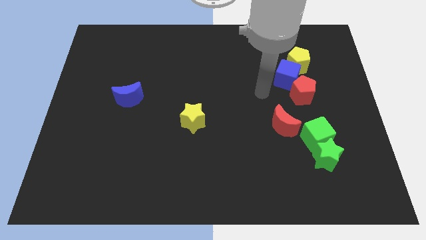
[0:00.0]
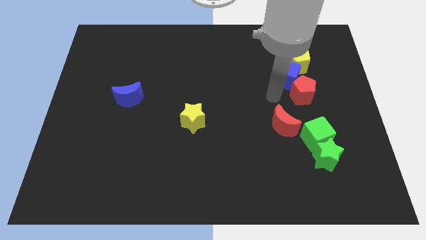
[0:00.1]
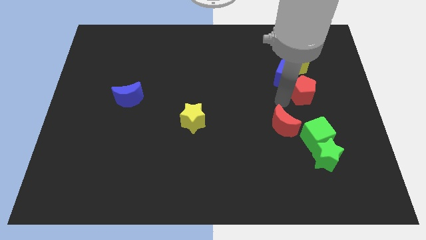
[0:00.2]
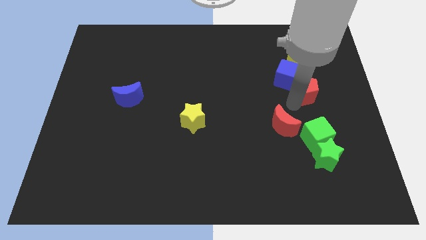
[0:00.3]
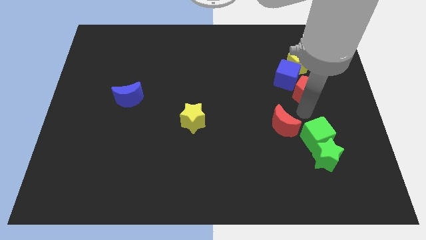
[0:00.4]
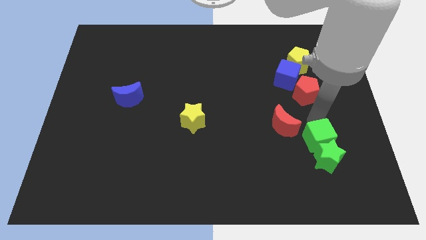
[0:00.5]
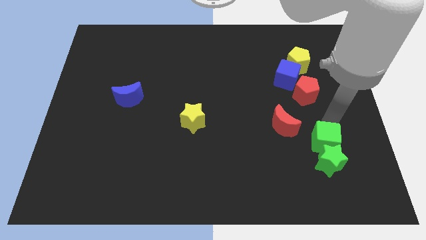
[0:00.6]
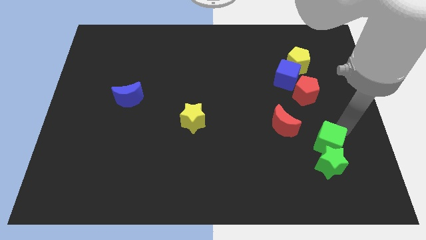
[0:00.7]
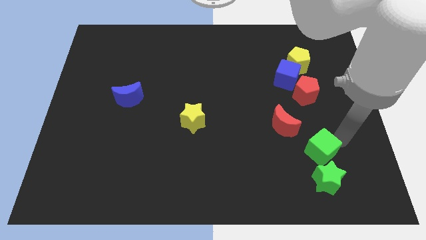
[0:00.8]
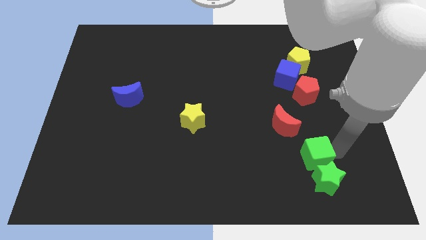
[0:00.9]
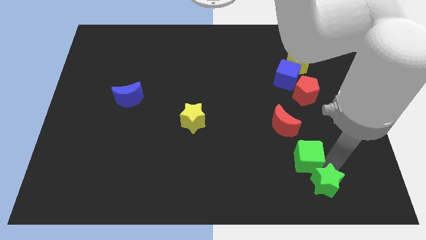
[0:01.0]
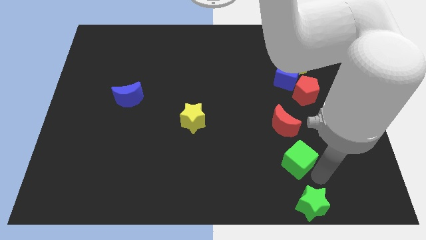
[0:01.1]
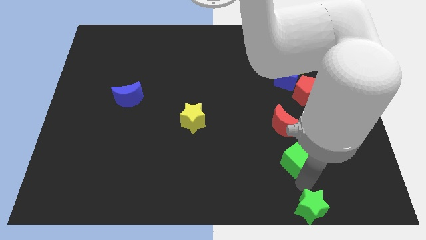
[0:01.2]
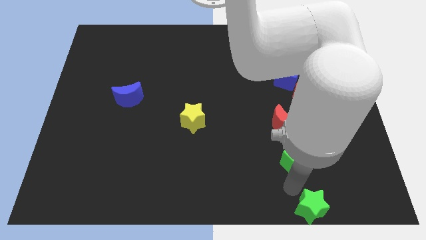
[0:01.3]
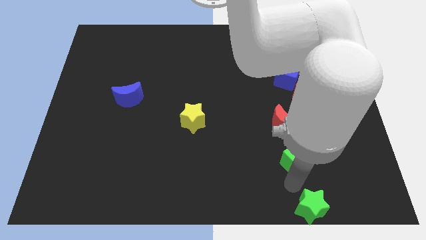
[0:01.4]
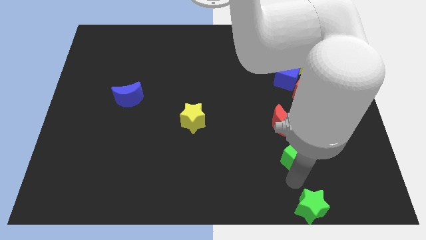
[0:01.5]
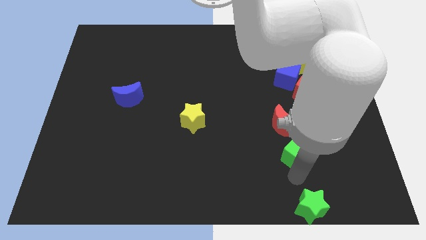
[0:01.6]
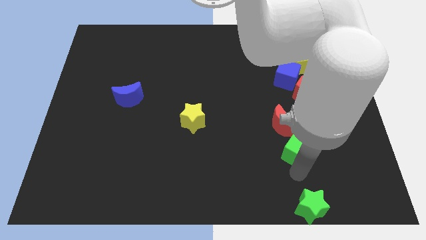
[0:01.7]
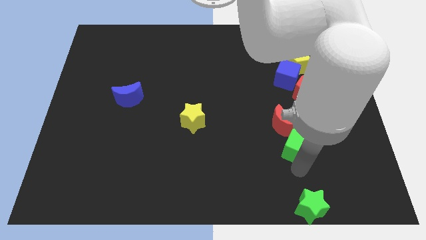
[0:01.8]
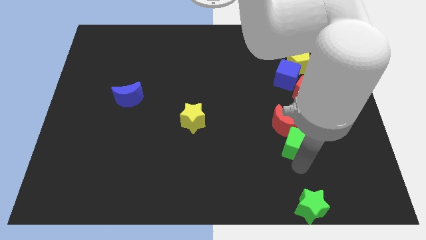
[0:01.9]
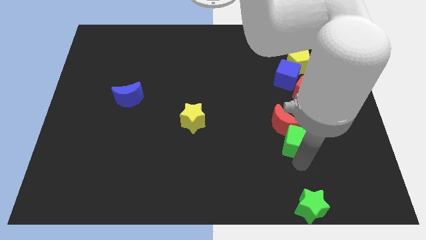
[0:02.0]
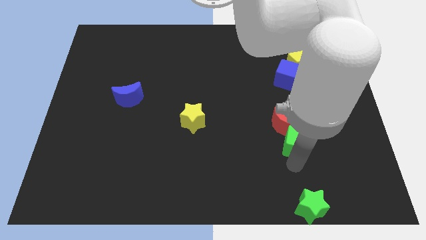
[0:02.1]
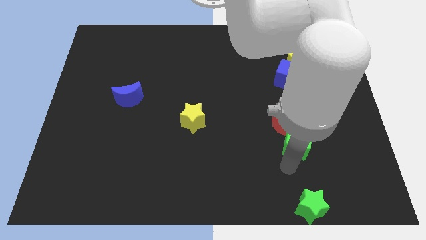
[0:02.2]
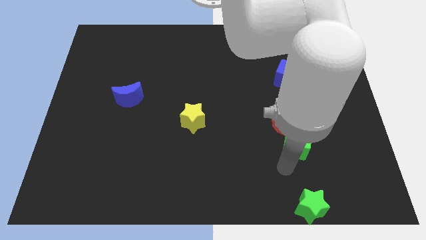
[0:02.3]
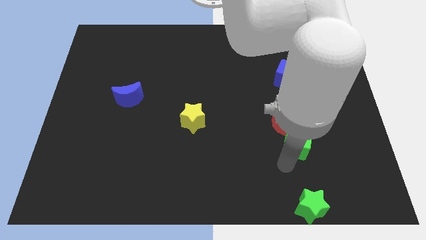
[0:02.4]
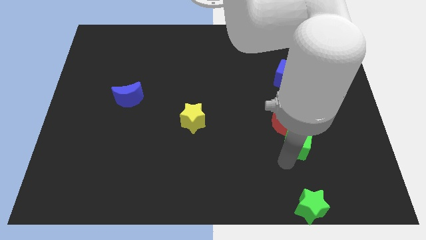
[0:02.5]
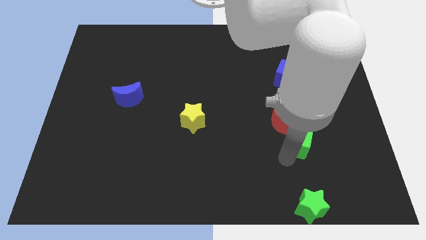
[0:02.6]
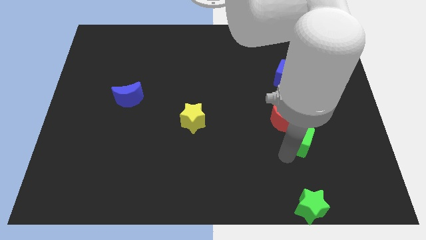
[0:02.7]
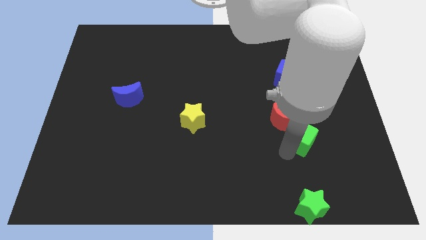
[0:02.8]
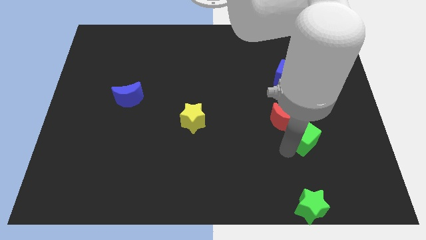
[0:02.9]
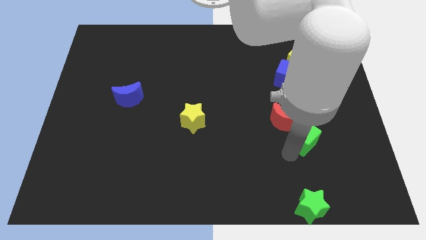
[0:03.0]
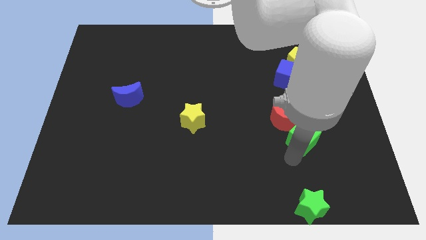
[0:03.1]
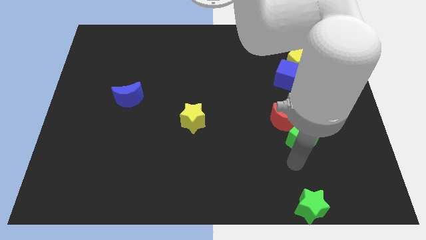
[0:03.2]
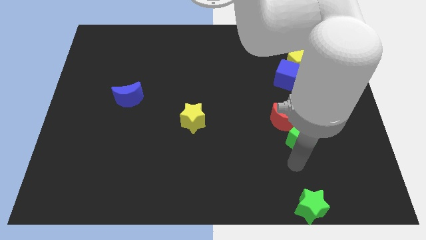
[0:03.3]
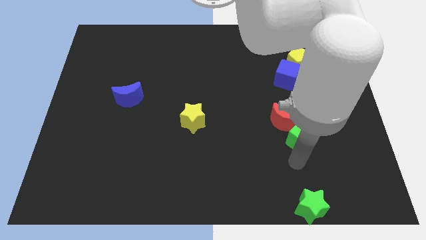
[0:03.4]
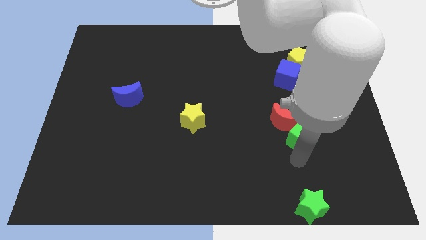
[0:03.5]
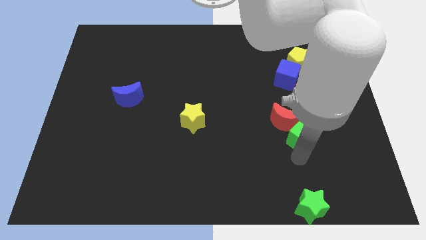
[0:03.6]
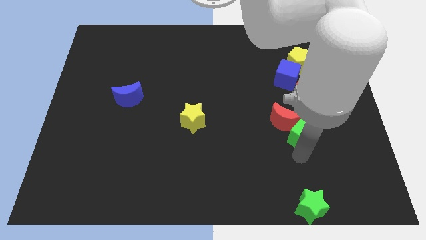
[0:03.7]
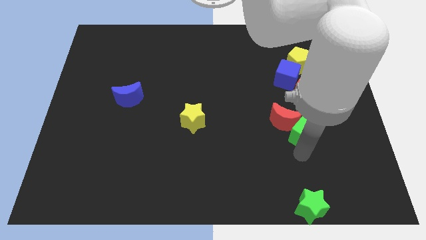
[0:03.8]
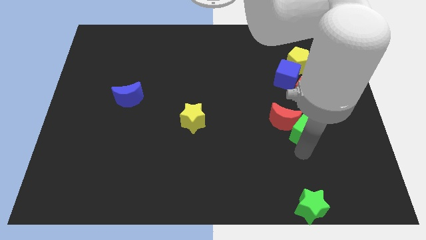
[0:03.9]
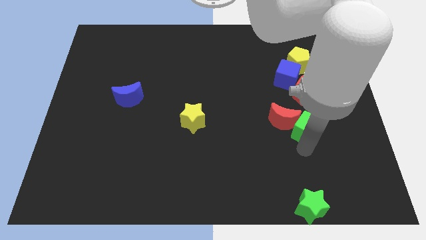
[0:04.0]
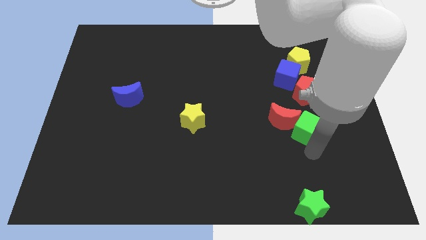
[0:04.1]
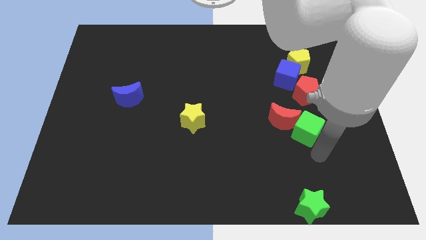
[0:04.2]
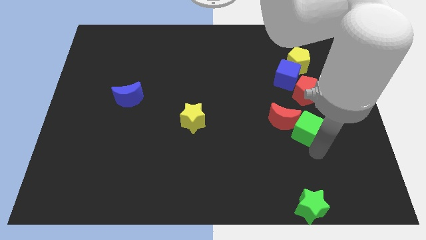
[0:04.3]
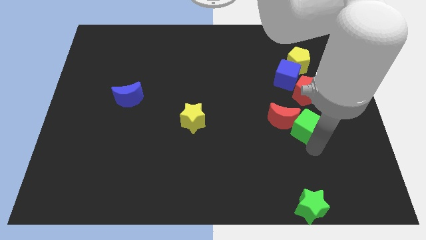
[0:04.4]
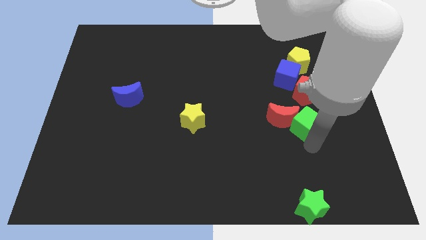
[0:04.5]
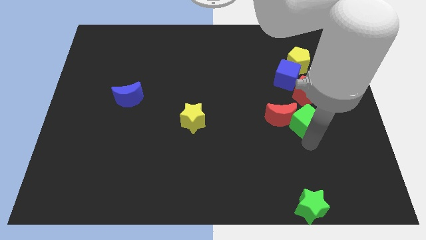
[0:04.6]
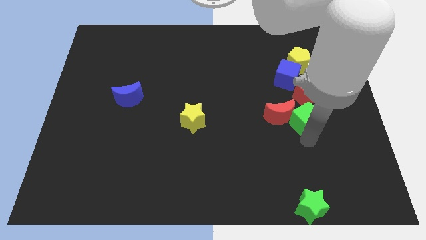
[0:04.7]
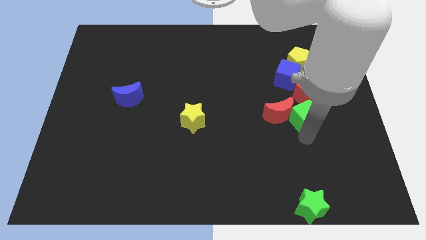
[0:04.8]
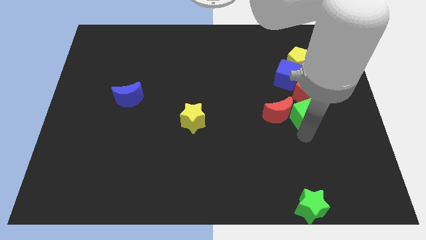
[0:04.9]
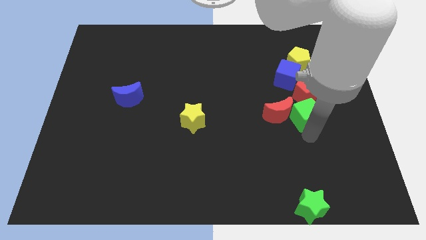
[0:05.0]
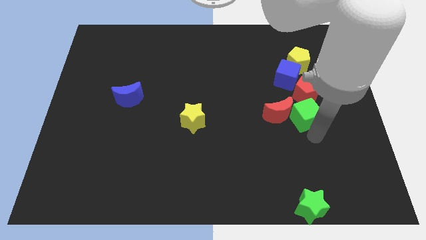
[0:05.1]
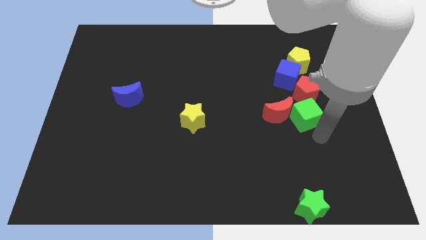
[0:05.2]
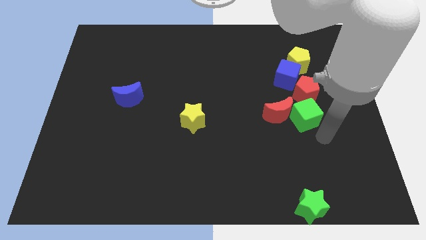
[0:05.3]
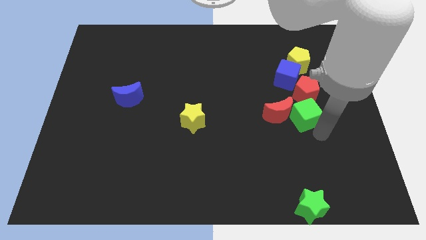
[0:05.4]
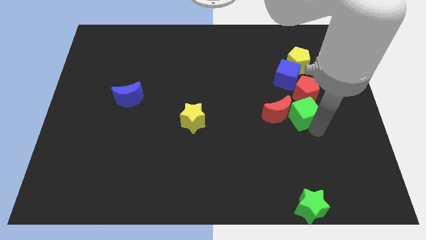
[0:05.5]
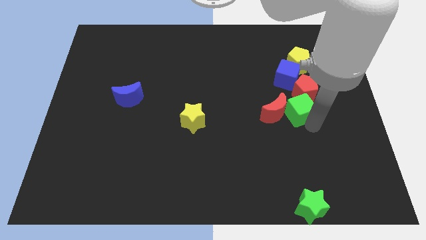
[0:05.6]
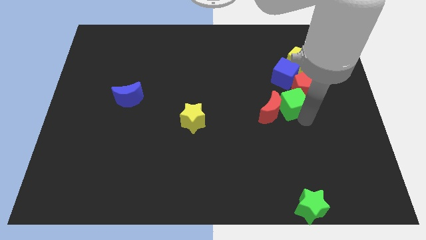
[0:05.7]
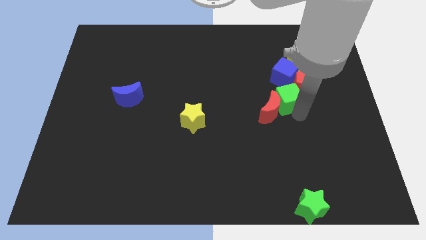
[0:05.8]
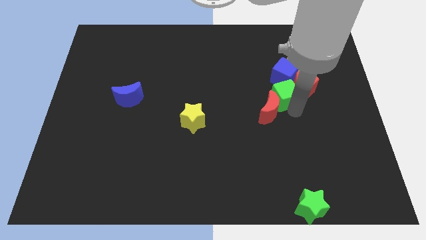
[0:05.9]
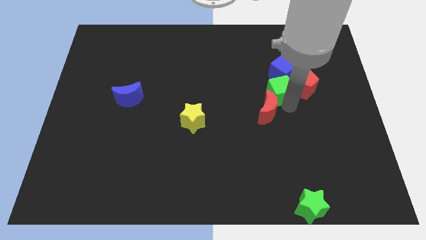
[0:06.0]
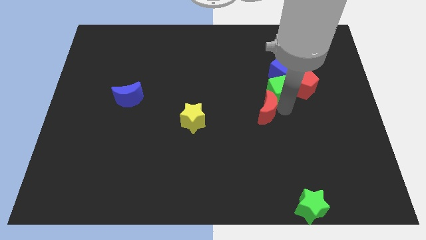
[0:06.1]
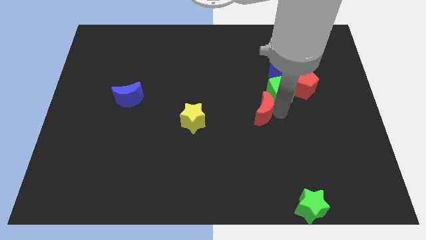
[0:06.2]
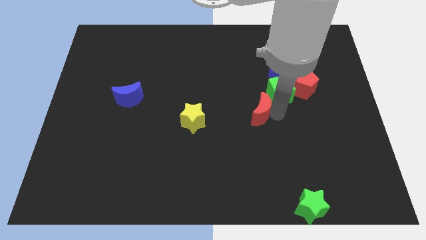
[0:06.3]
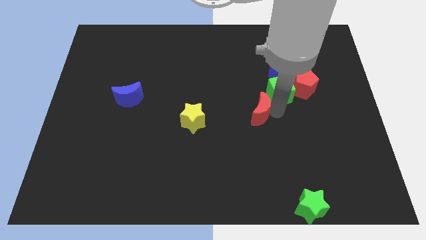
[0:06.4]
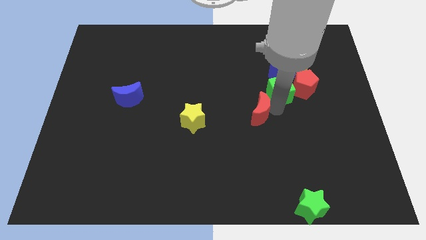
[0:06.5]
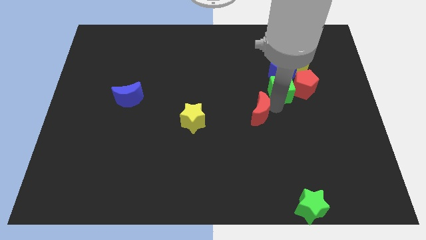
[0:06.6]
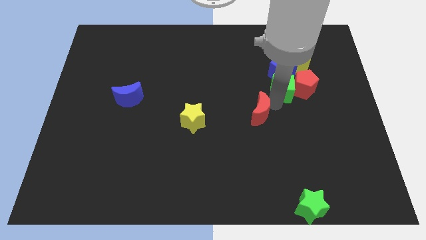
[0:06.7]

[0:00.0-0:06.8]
put the green cube next to the blue cube

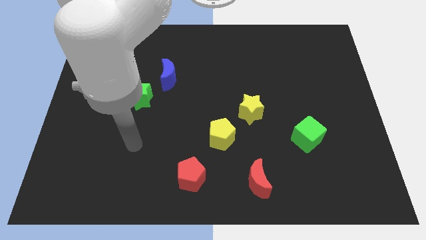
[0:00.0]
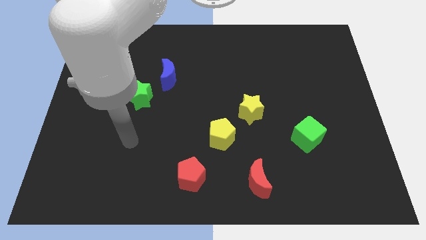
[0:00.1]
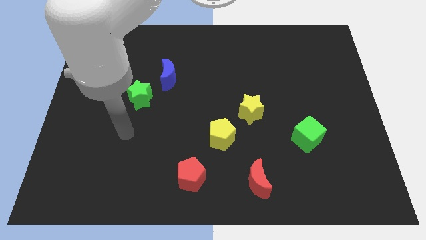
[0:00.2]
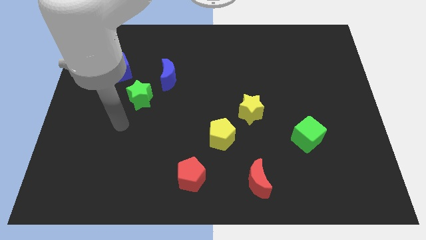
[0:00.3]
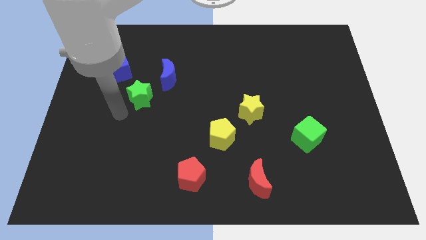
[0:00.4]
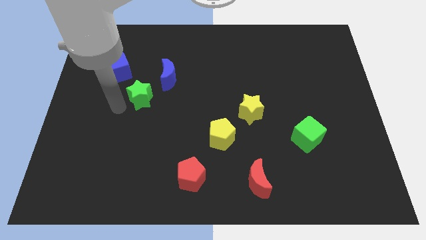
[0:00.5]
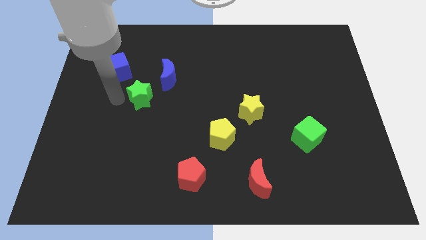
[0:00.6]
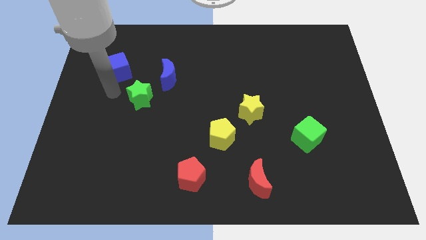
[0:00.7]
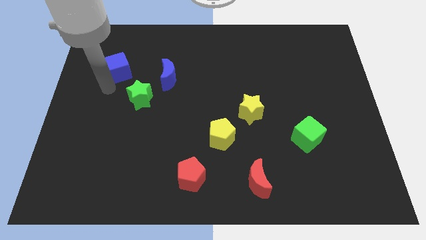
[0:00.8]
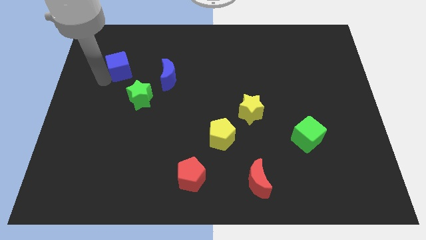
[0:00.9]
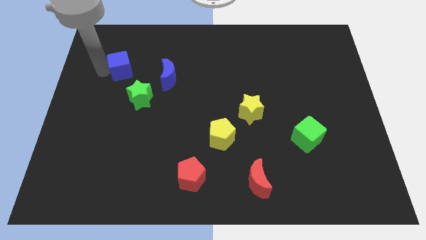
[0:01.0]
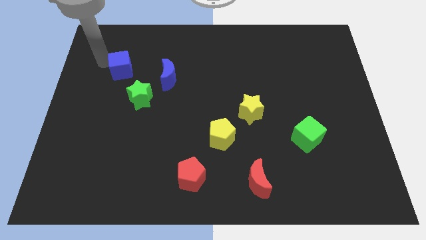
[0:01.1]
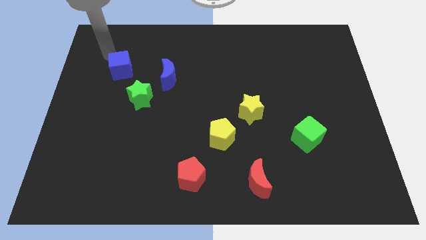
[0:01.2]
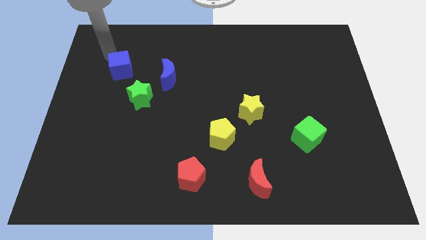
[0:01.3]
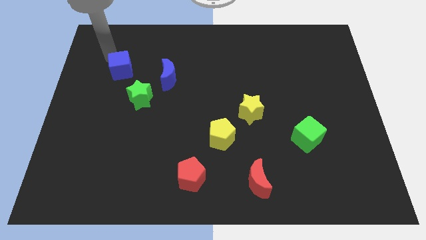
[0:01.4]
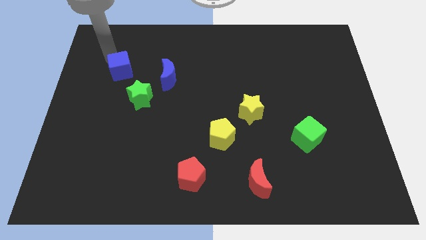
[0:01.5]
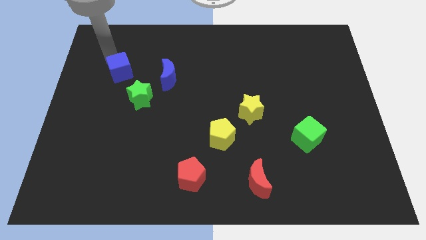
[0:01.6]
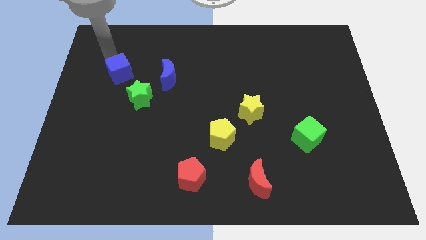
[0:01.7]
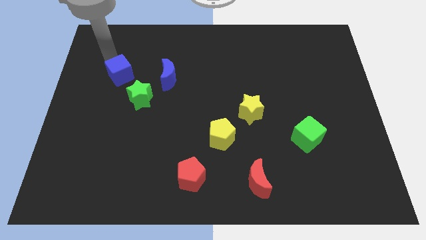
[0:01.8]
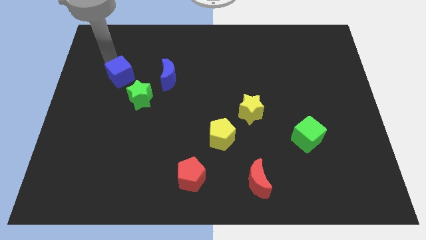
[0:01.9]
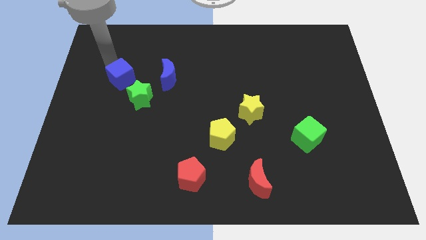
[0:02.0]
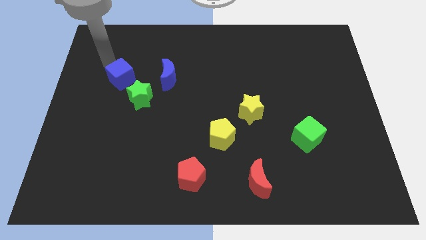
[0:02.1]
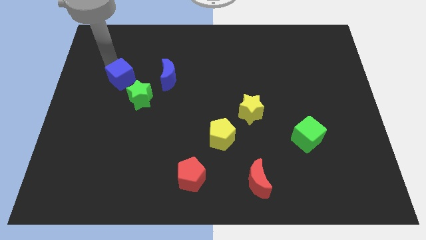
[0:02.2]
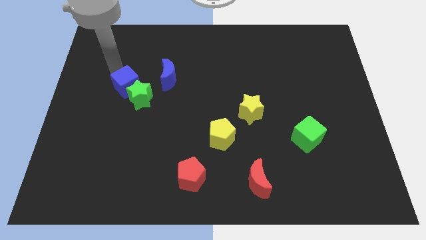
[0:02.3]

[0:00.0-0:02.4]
slide the blue cube next to the green star
